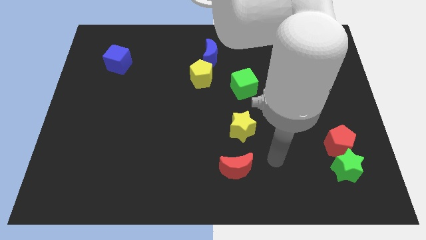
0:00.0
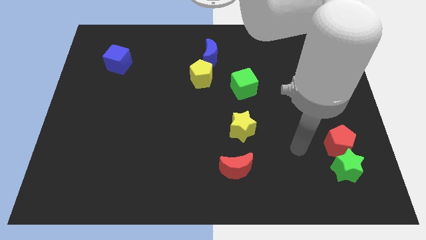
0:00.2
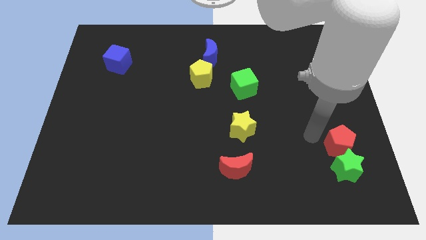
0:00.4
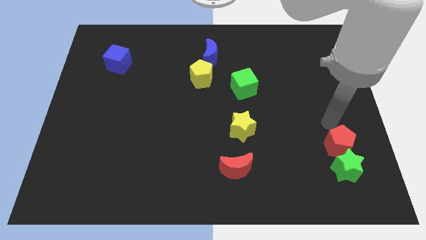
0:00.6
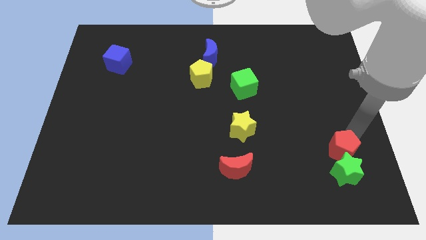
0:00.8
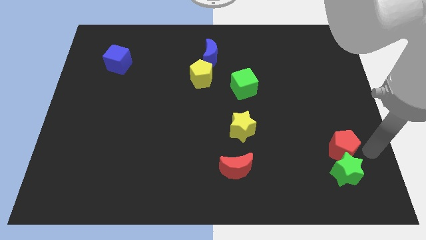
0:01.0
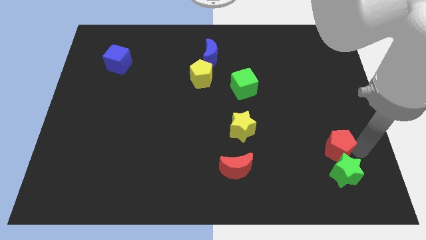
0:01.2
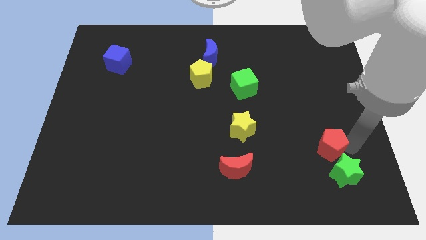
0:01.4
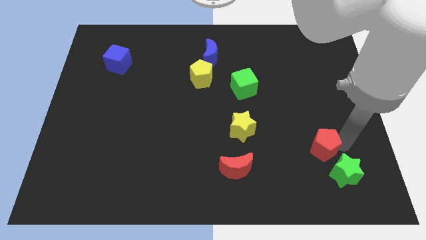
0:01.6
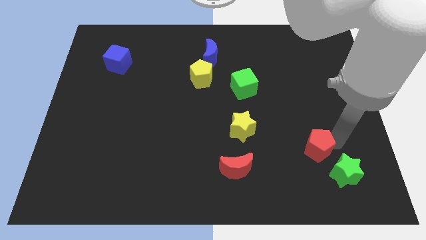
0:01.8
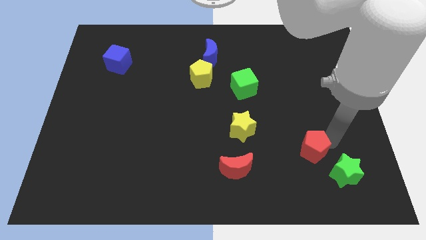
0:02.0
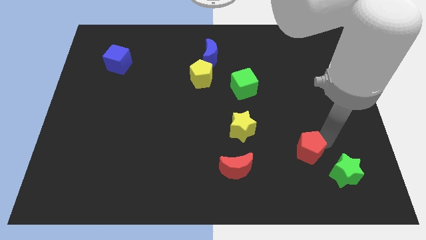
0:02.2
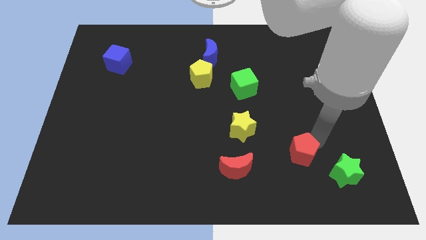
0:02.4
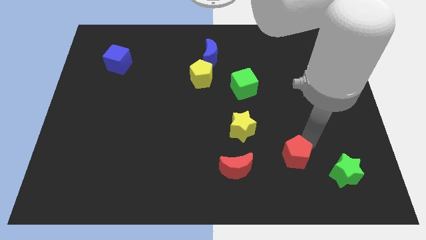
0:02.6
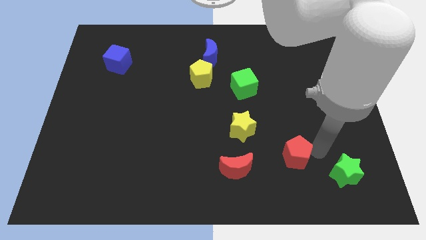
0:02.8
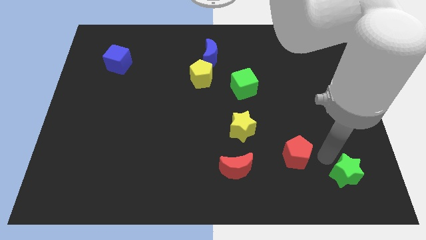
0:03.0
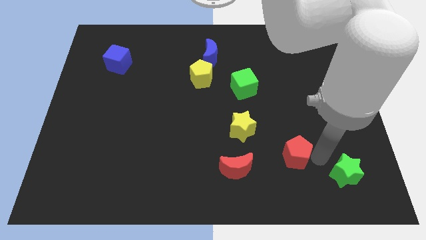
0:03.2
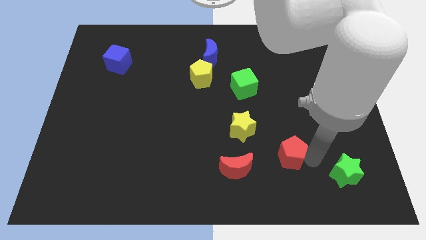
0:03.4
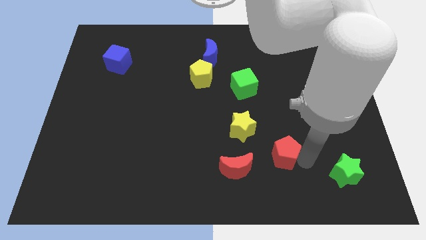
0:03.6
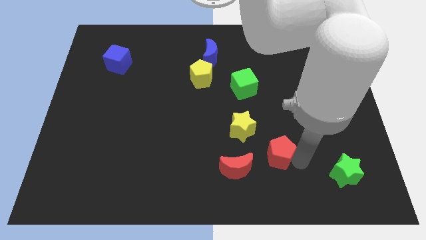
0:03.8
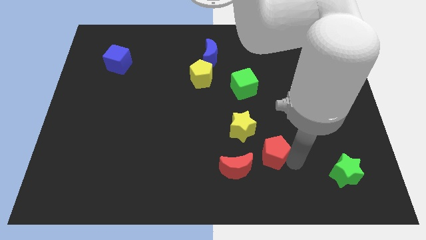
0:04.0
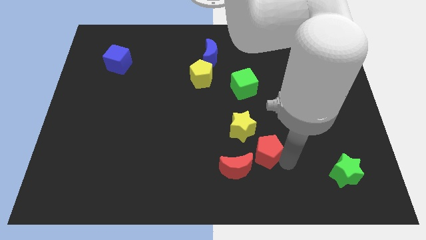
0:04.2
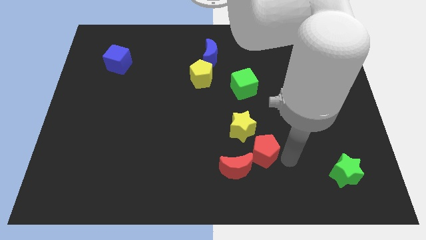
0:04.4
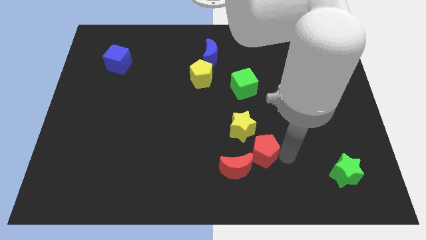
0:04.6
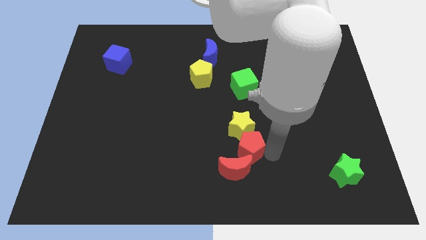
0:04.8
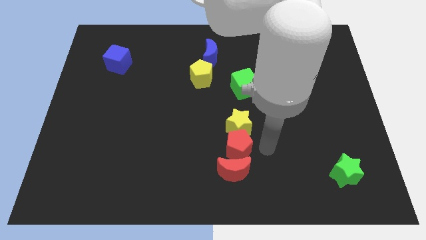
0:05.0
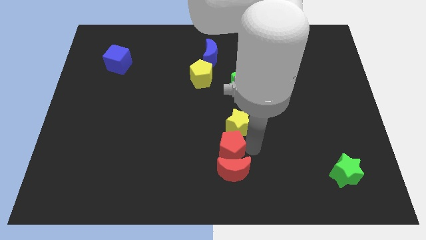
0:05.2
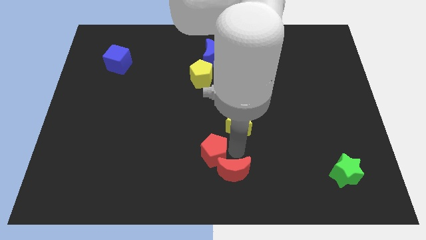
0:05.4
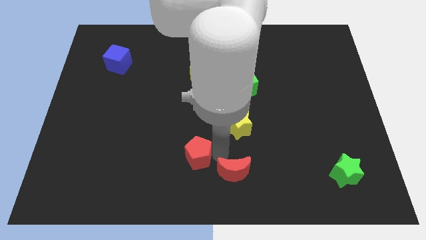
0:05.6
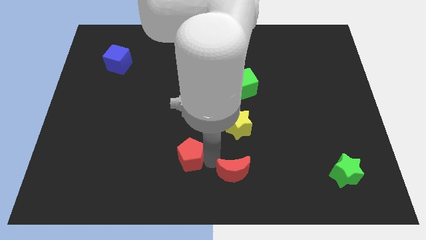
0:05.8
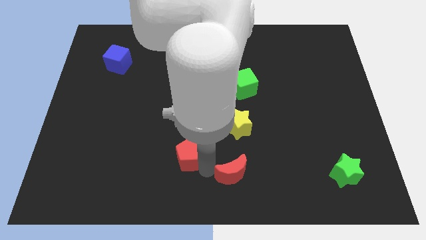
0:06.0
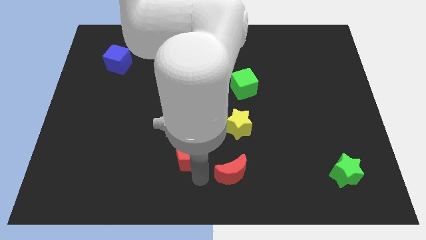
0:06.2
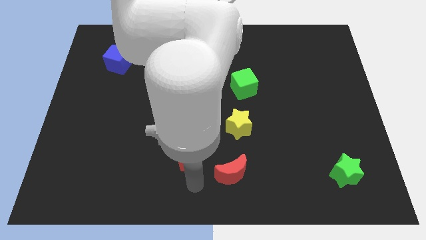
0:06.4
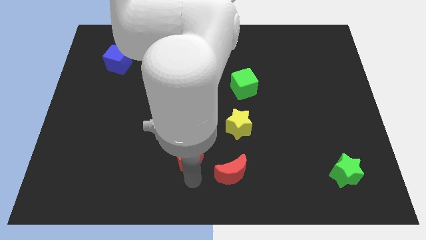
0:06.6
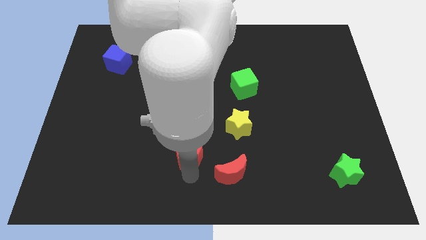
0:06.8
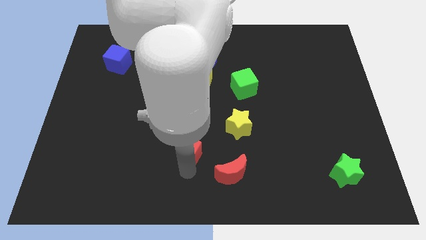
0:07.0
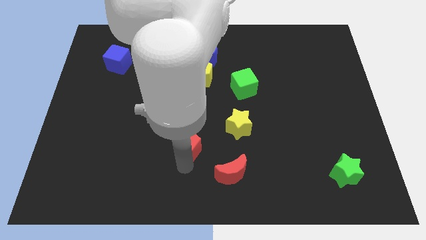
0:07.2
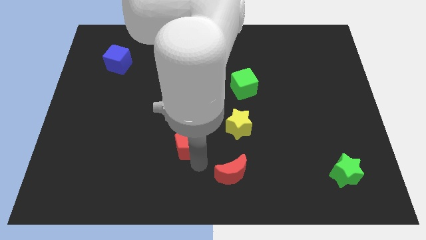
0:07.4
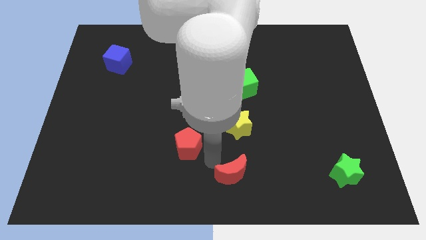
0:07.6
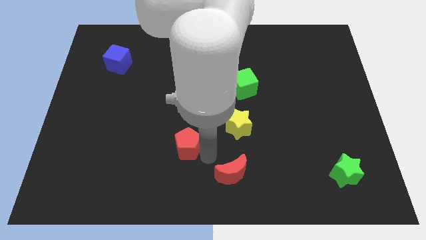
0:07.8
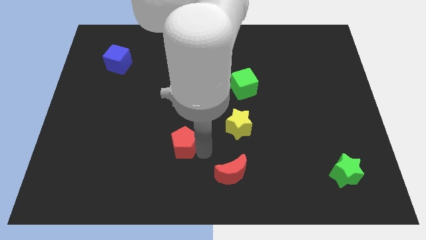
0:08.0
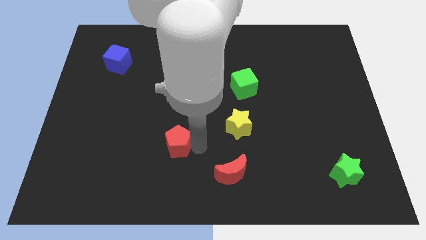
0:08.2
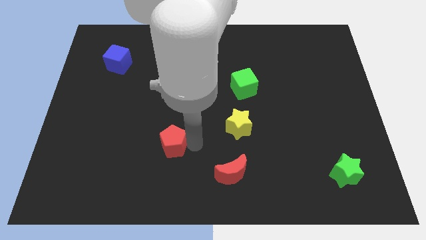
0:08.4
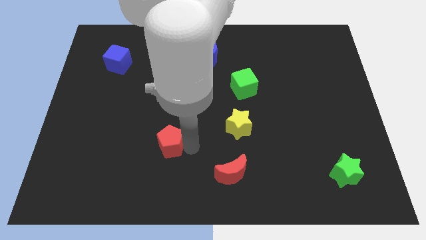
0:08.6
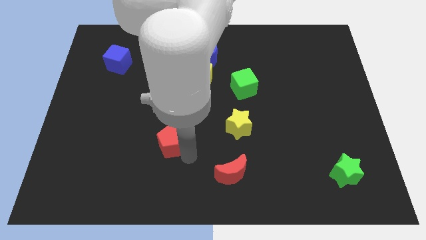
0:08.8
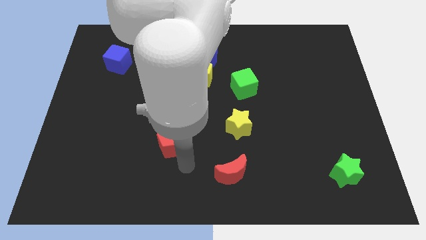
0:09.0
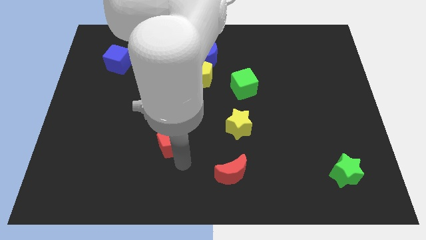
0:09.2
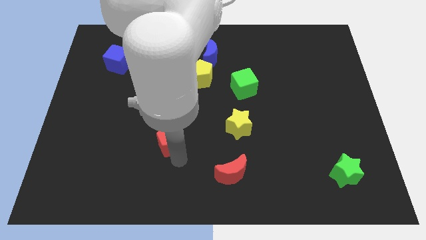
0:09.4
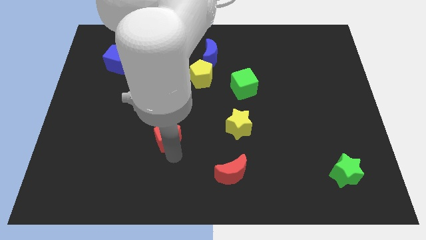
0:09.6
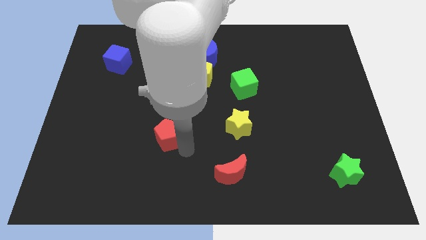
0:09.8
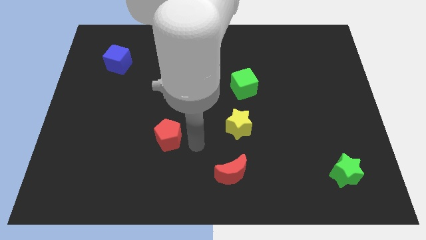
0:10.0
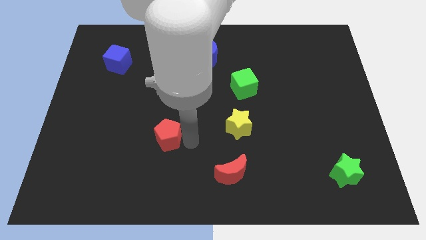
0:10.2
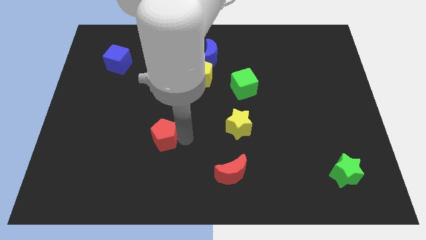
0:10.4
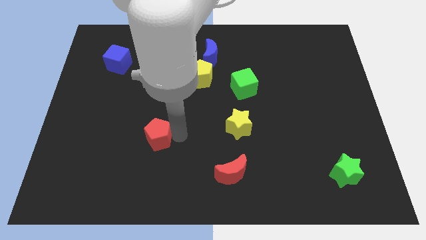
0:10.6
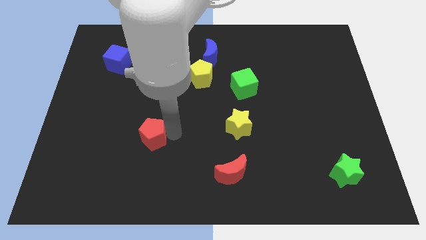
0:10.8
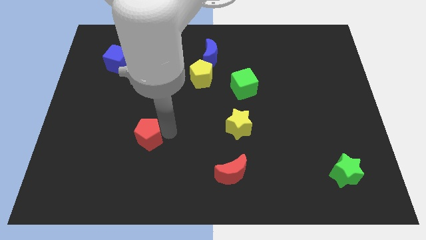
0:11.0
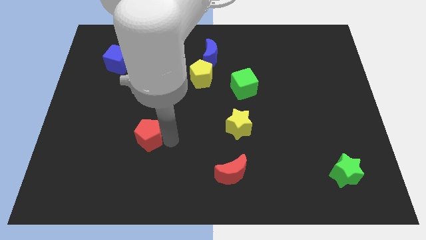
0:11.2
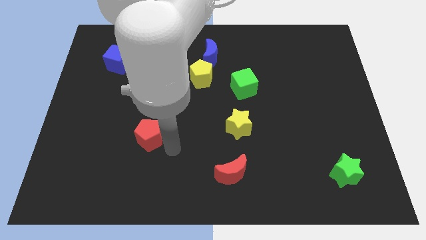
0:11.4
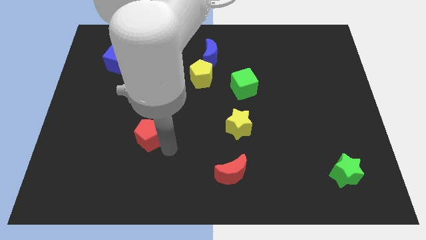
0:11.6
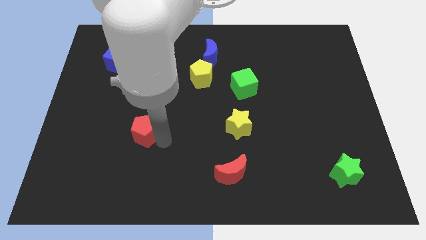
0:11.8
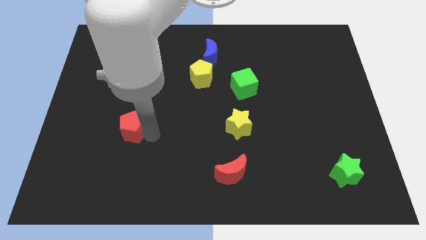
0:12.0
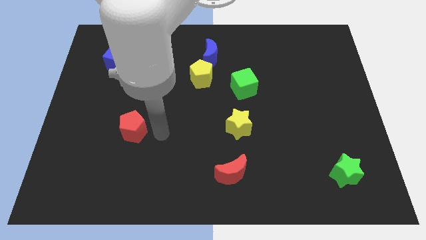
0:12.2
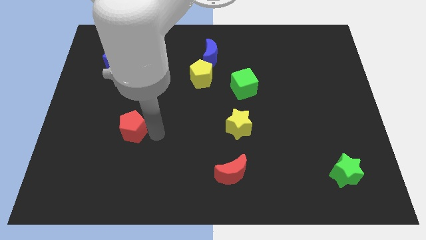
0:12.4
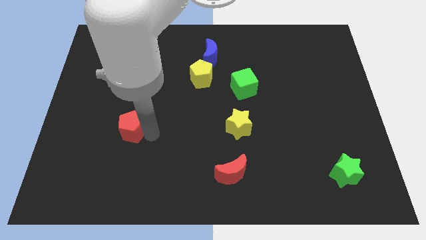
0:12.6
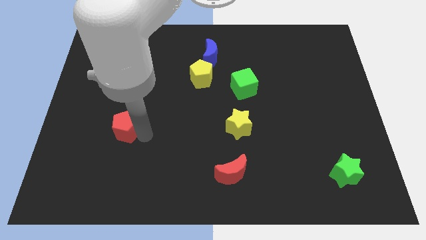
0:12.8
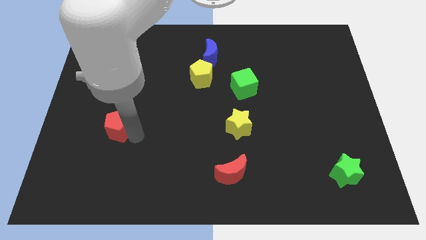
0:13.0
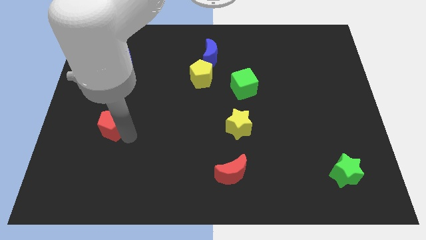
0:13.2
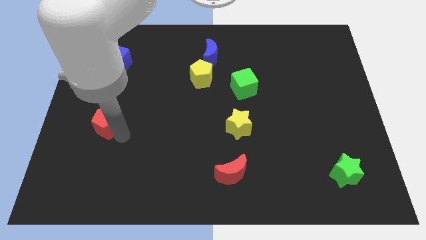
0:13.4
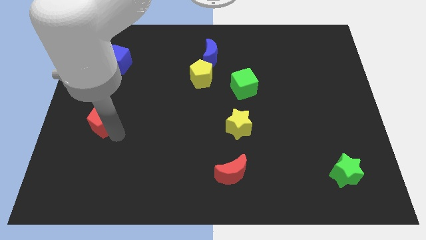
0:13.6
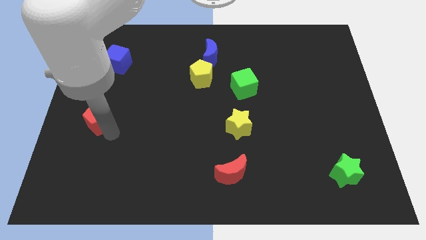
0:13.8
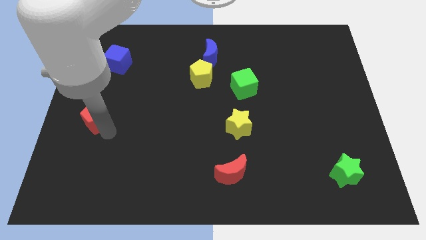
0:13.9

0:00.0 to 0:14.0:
slide the red pentagon to the left side
